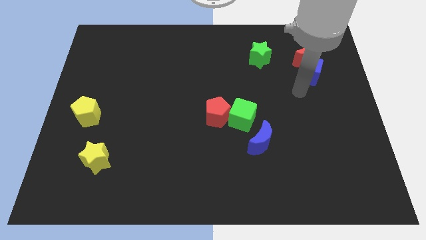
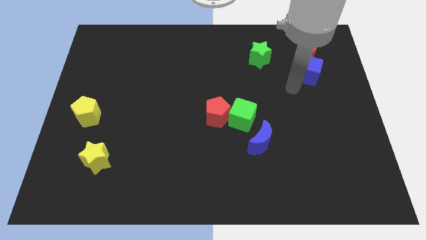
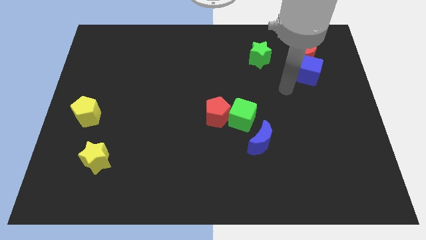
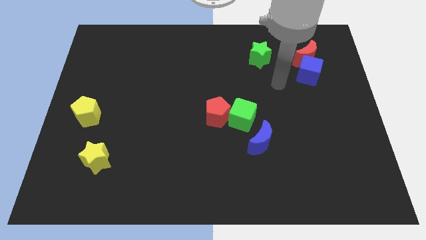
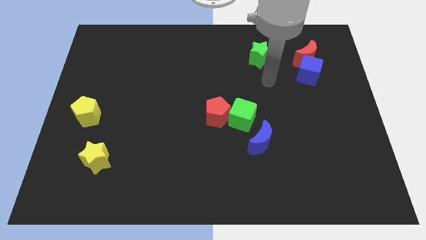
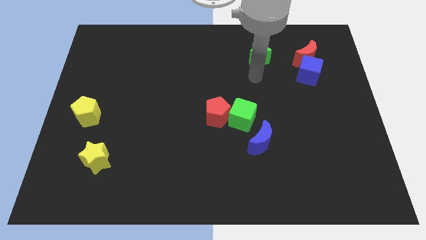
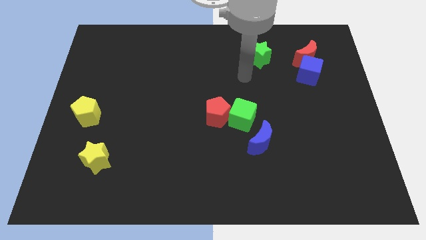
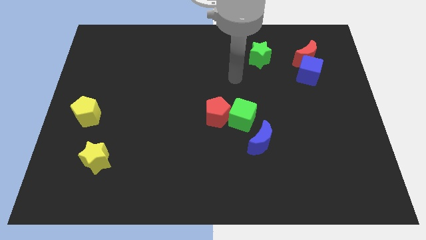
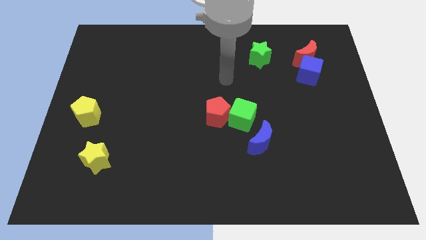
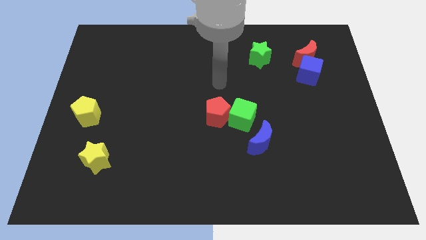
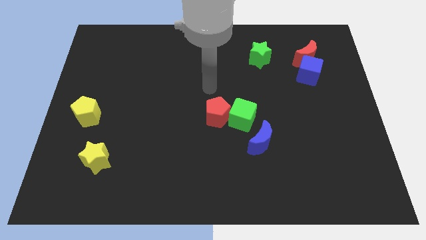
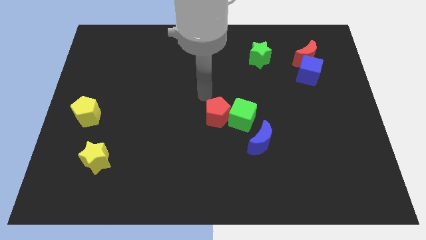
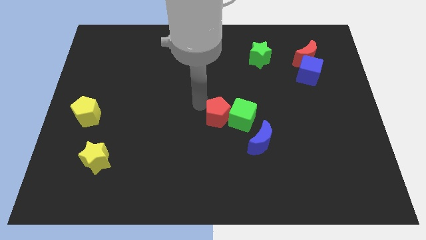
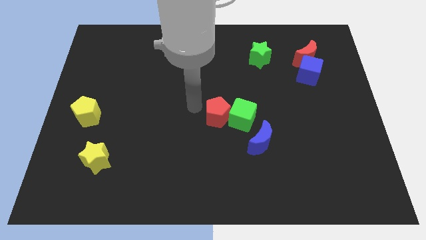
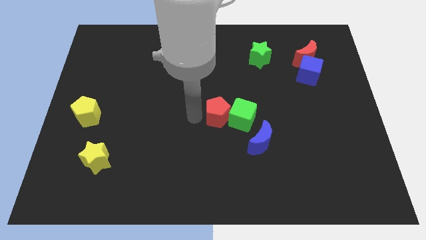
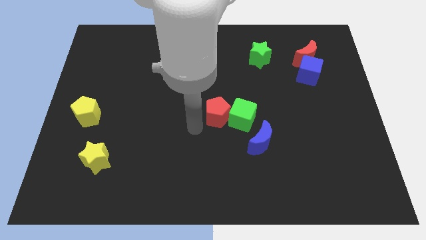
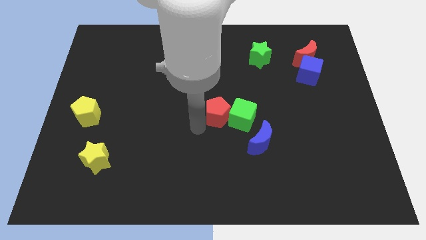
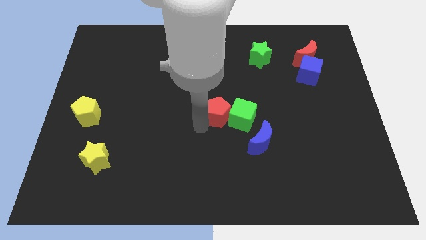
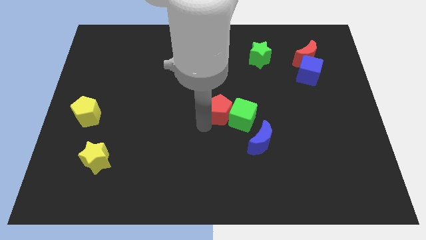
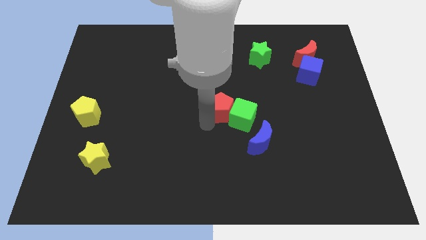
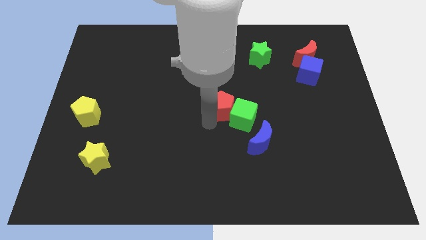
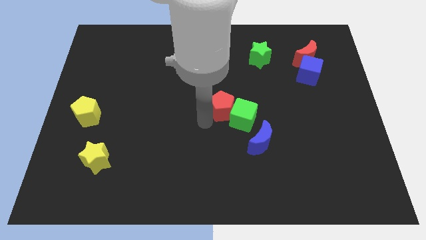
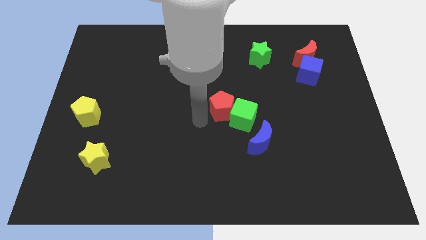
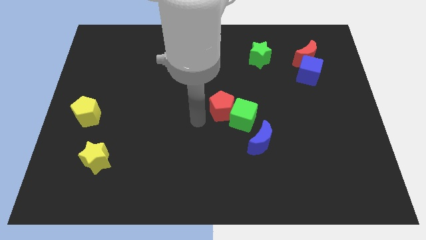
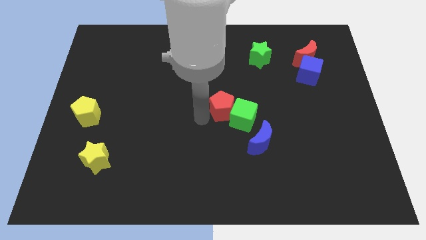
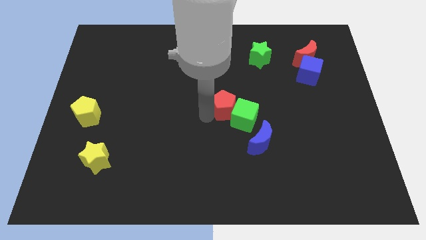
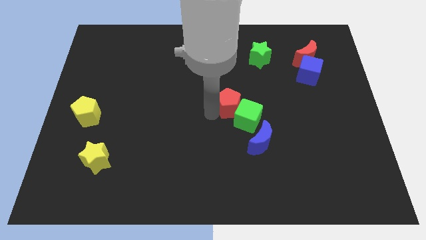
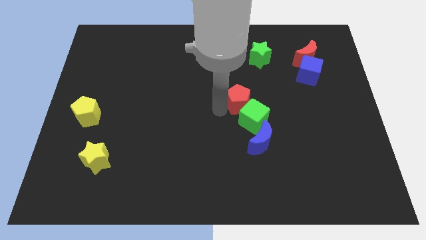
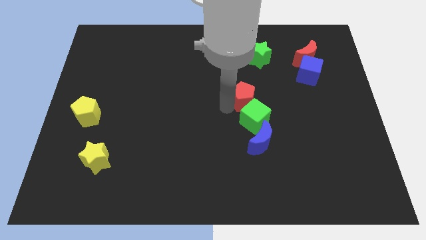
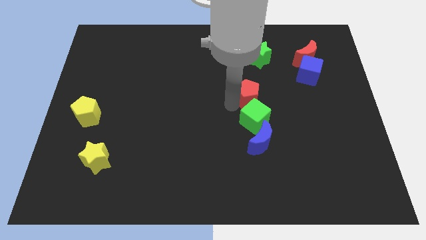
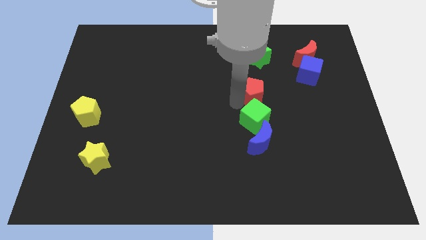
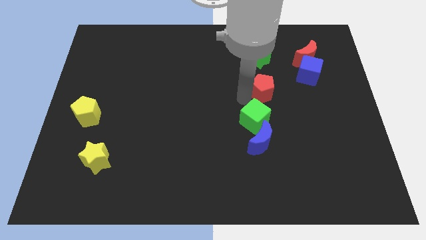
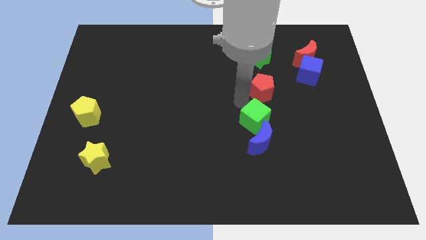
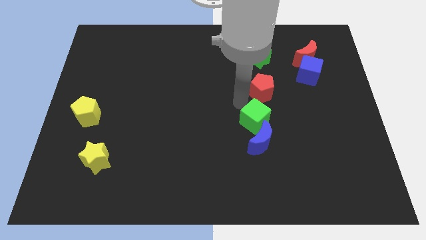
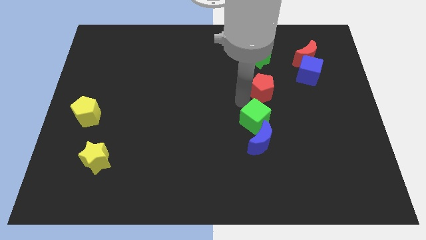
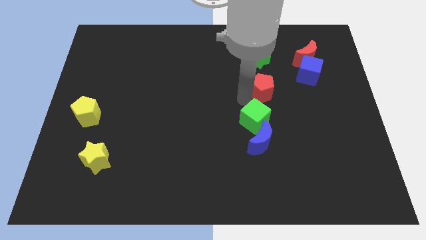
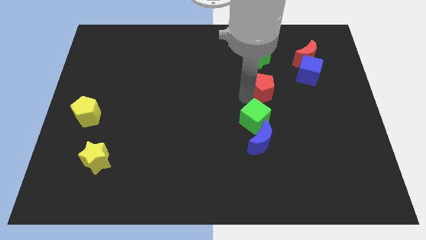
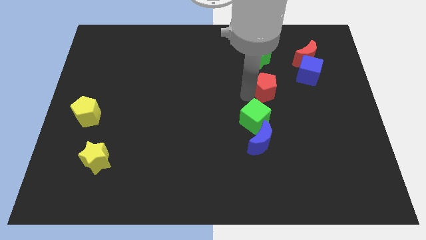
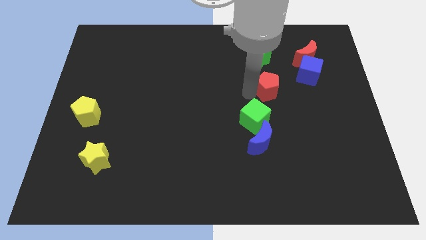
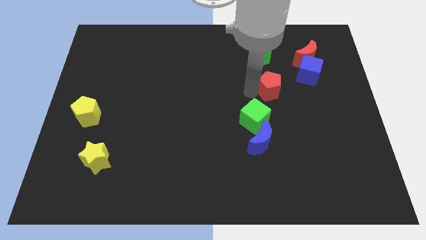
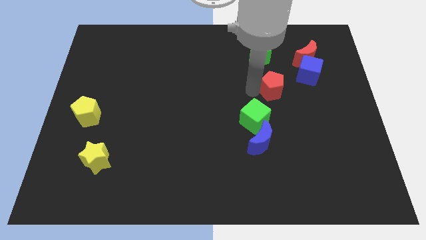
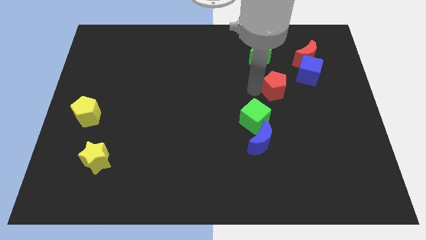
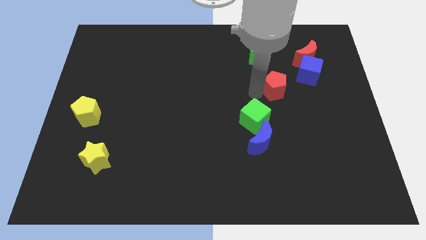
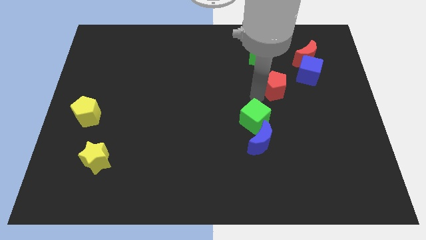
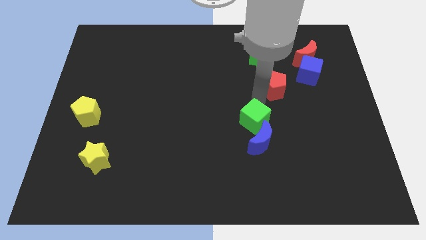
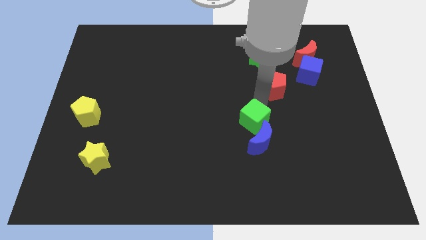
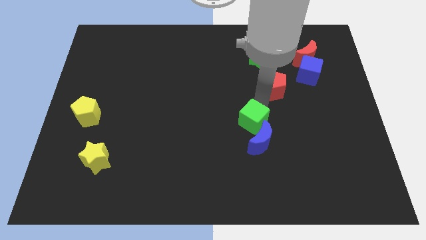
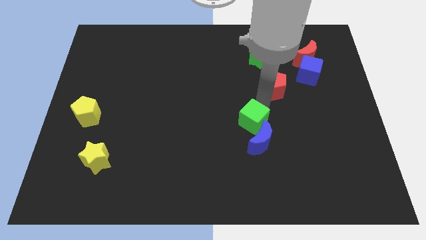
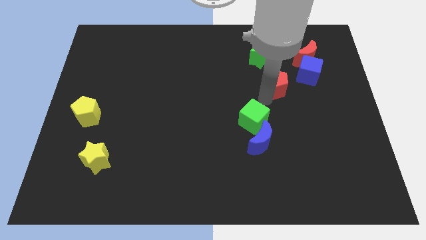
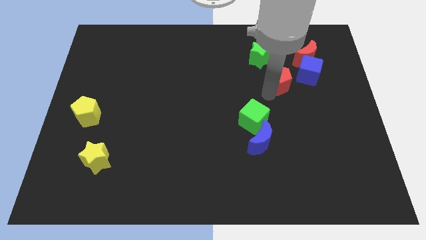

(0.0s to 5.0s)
put the red pentagon diagonally down and to the left of the red moon

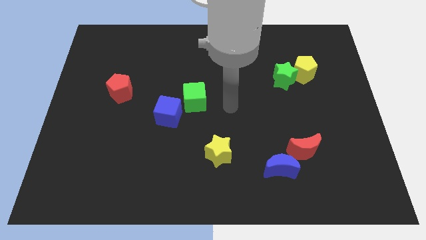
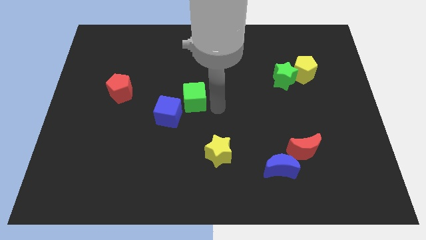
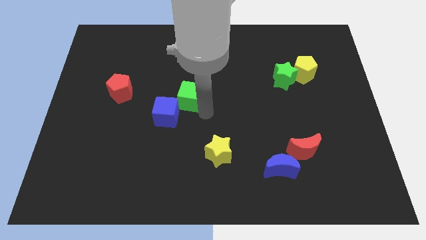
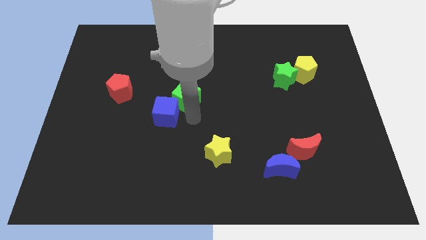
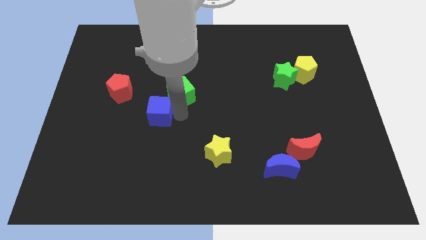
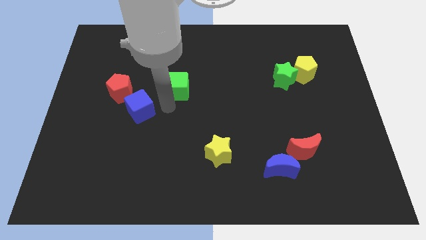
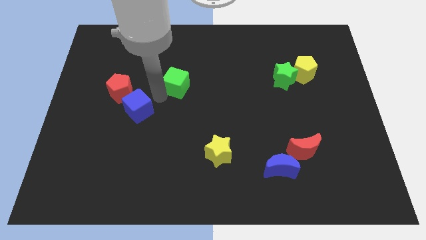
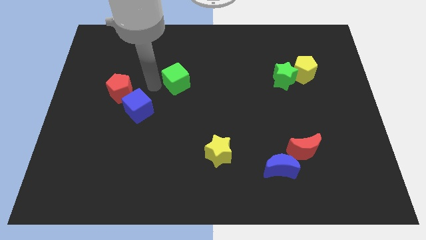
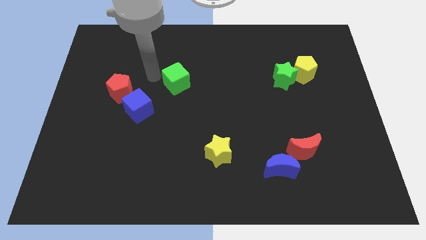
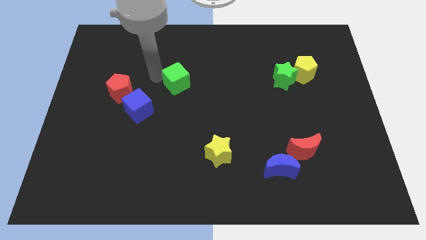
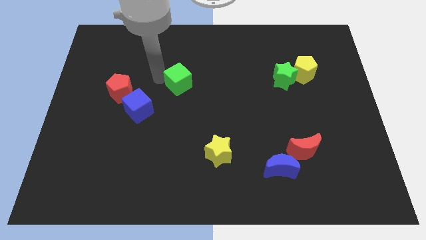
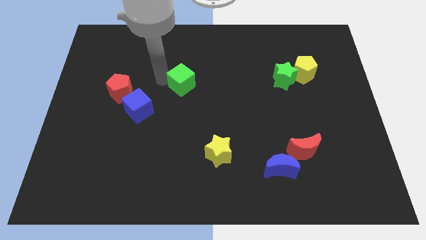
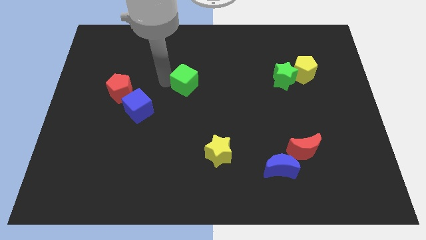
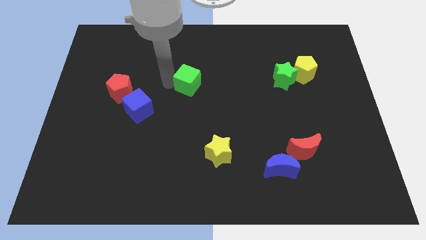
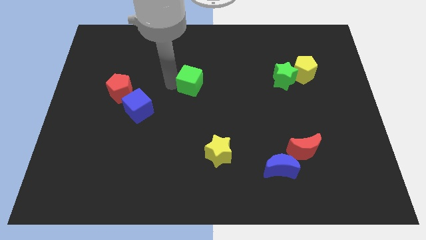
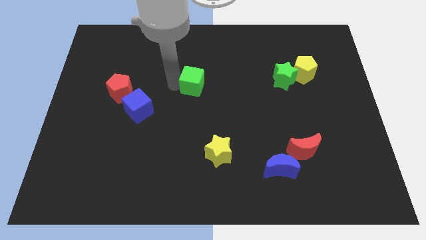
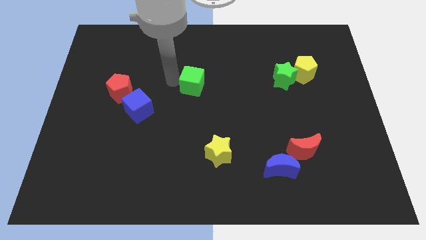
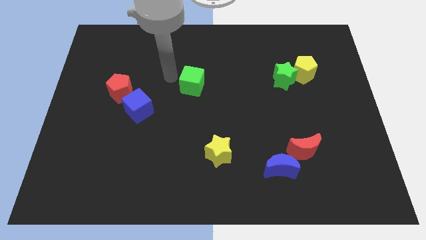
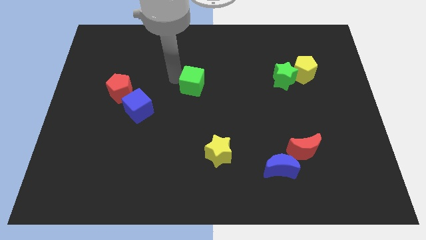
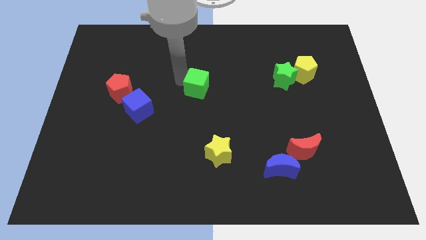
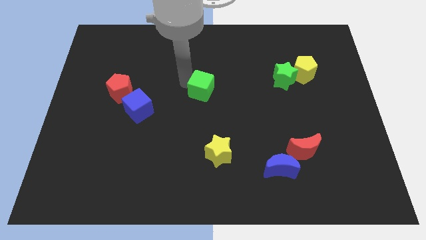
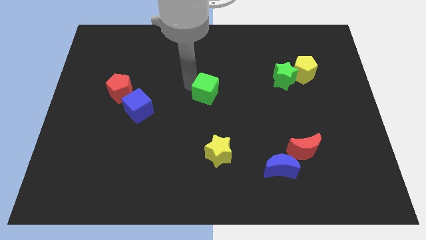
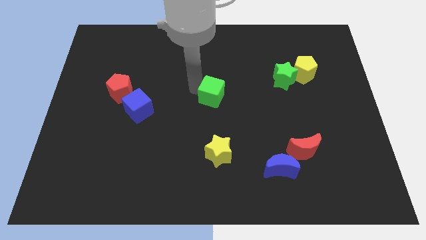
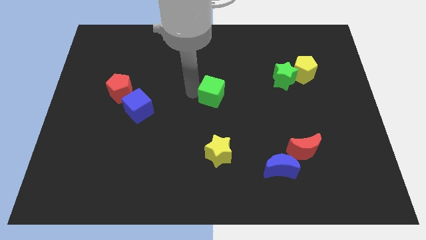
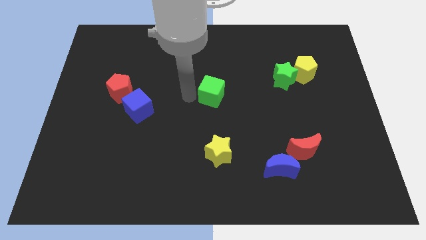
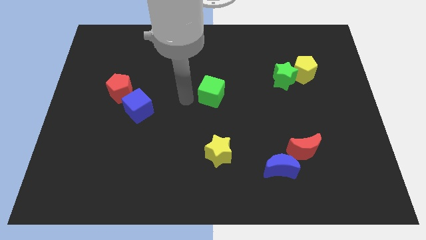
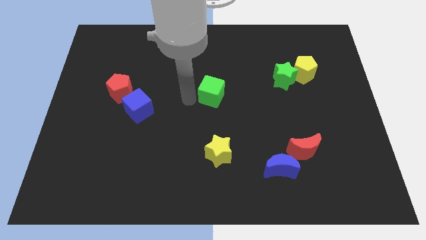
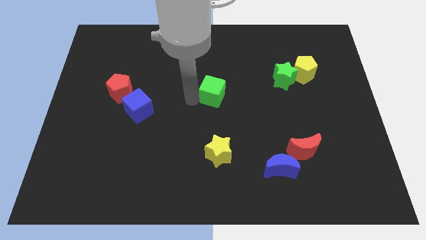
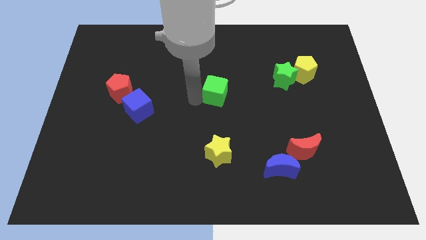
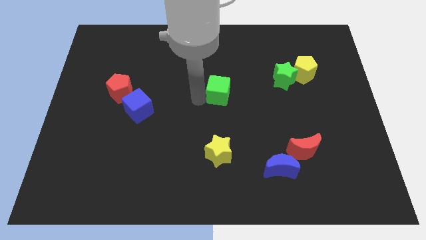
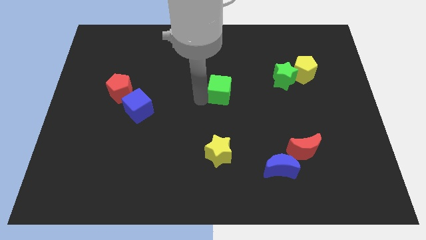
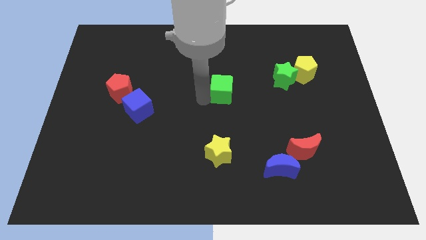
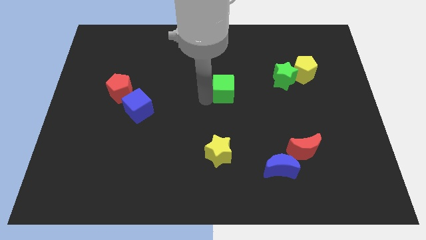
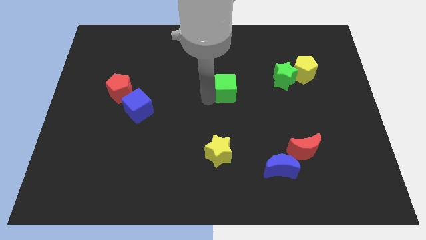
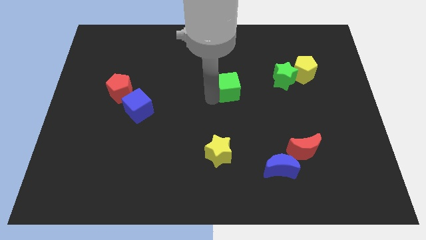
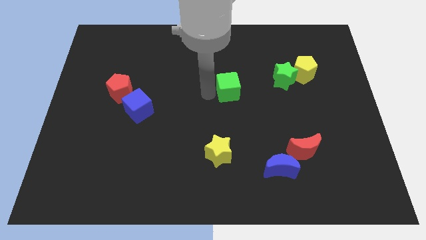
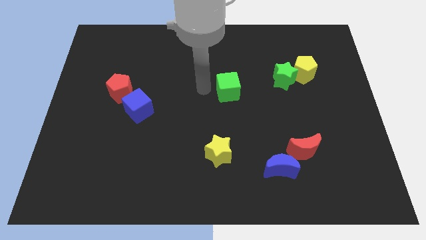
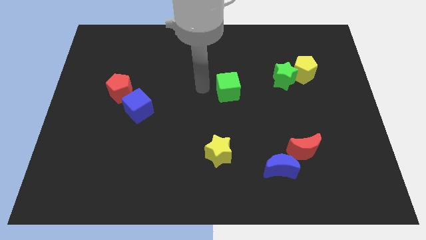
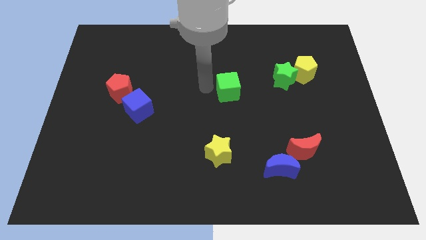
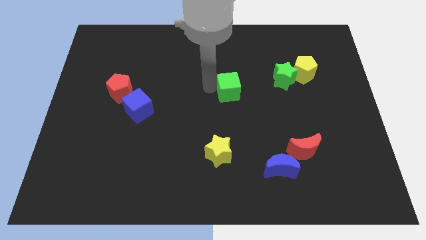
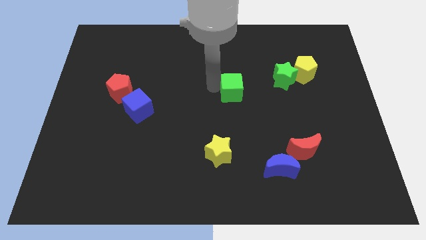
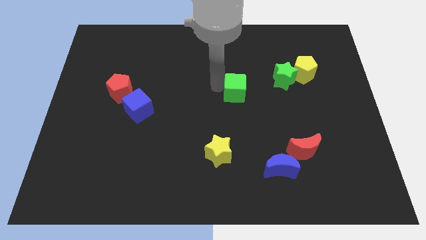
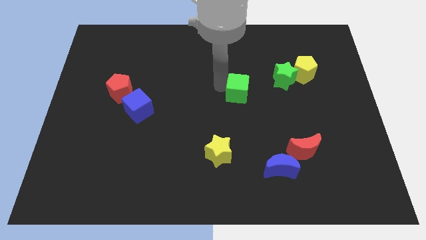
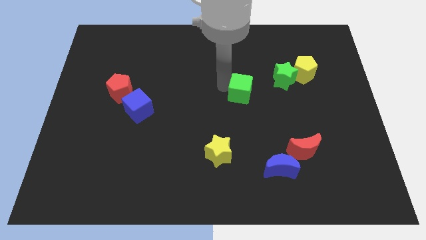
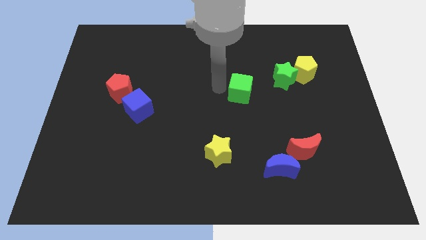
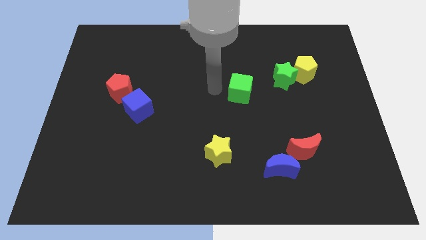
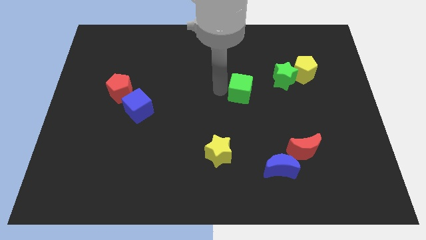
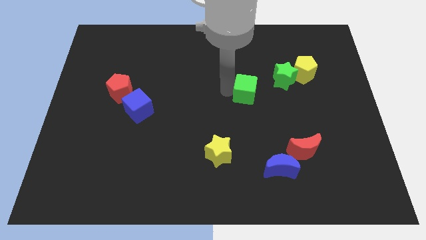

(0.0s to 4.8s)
move the green cube to the bottom left side of the green star
